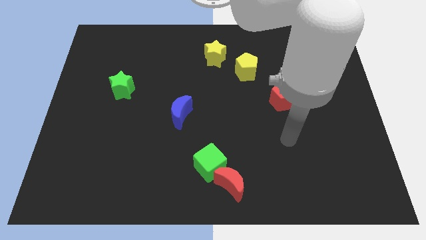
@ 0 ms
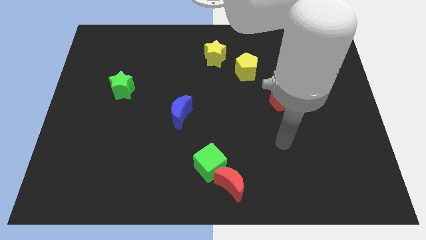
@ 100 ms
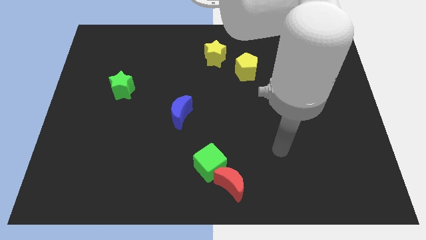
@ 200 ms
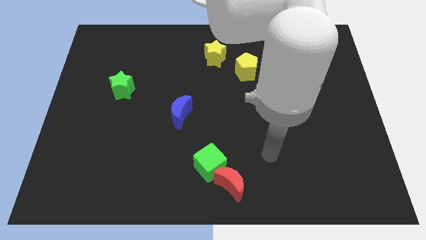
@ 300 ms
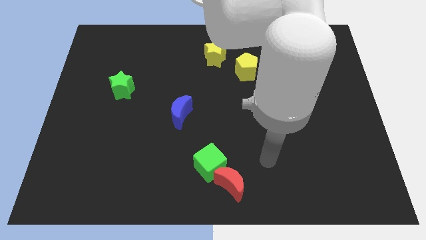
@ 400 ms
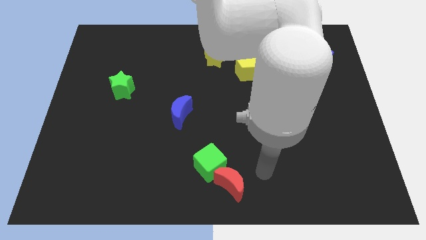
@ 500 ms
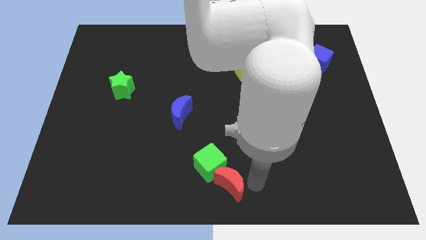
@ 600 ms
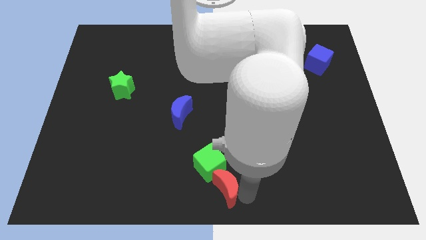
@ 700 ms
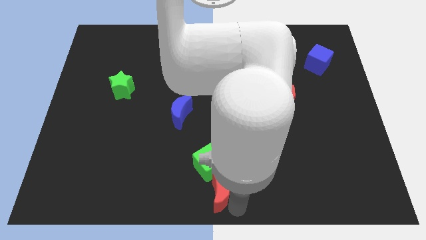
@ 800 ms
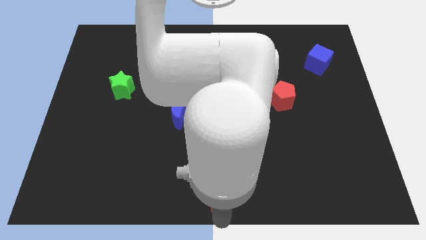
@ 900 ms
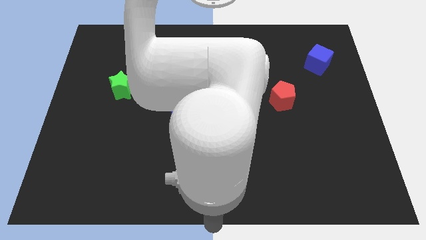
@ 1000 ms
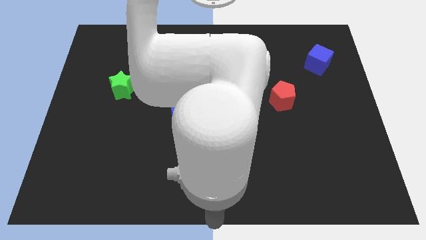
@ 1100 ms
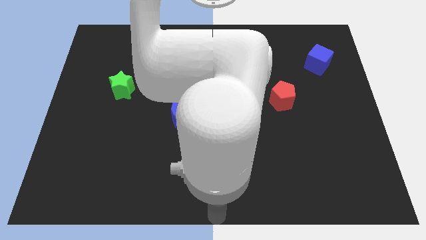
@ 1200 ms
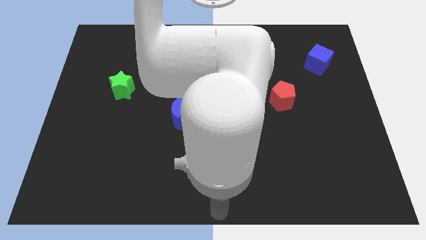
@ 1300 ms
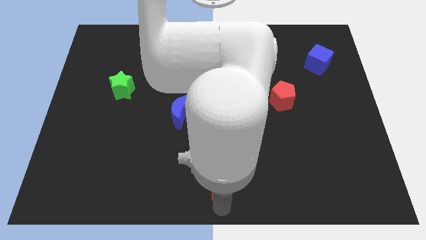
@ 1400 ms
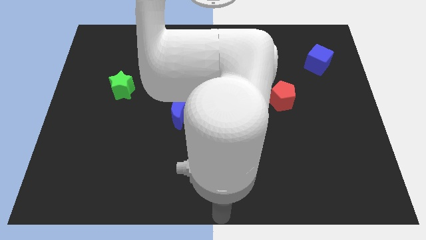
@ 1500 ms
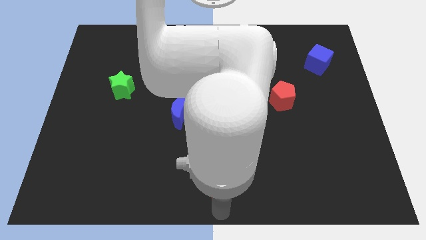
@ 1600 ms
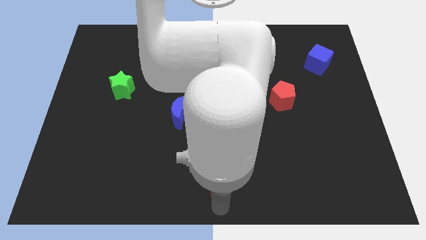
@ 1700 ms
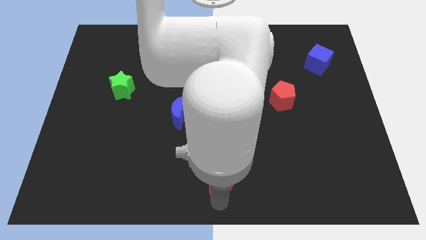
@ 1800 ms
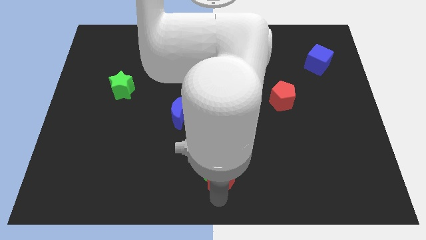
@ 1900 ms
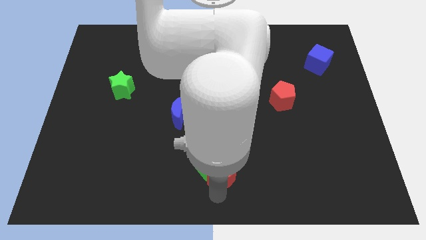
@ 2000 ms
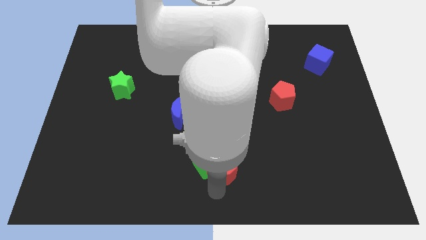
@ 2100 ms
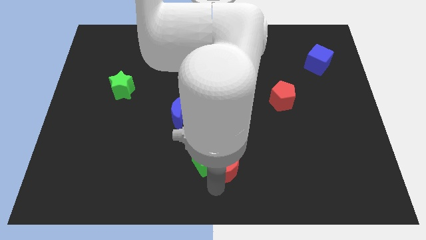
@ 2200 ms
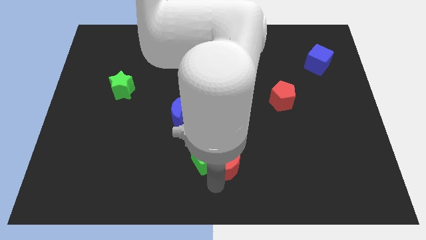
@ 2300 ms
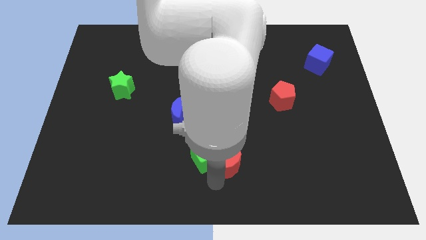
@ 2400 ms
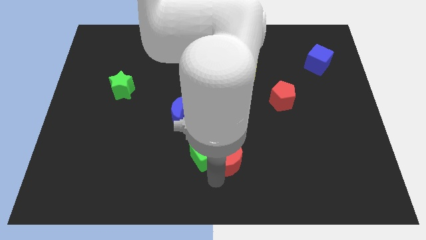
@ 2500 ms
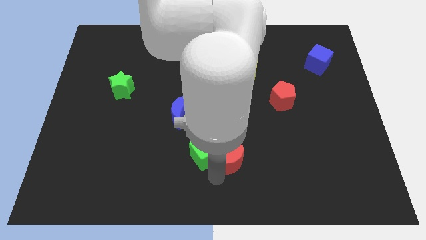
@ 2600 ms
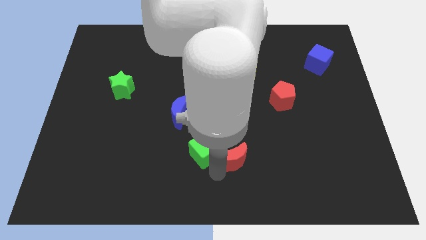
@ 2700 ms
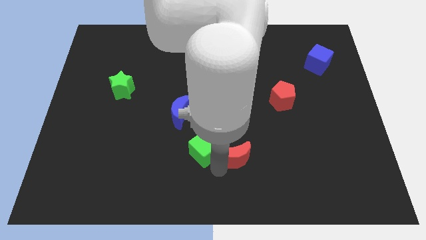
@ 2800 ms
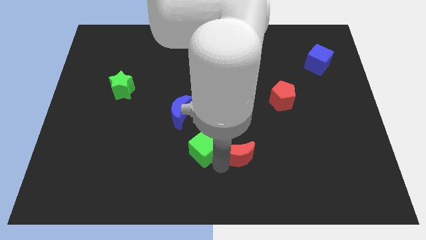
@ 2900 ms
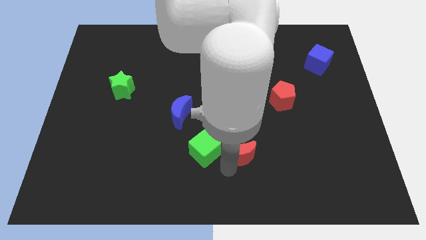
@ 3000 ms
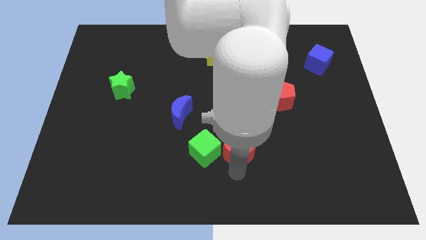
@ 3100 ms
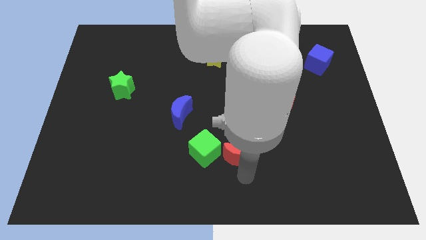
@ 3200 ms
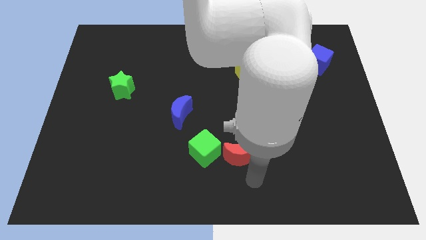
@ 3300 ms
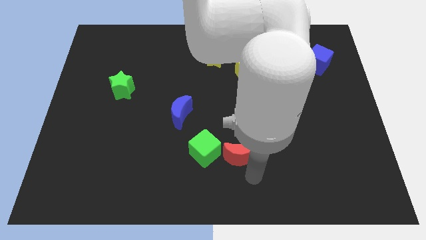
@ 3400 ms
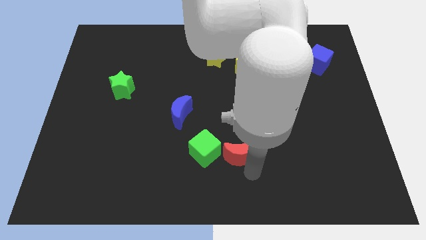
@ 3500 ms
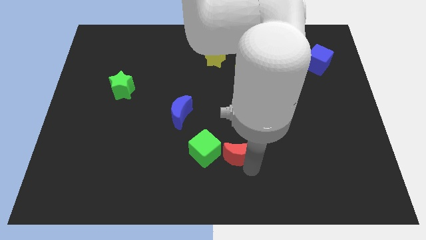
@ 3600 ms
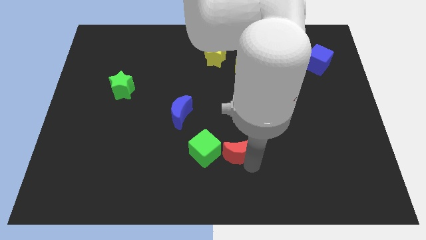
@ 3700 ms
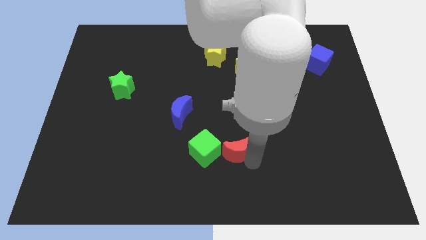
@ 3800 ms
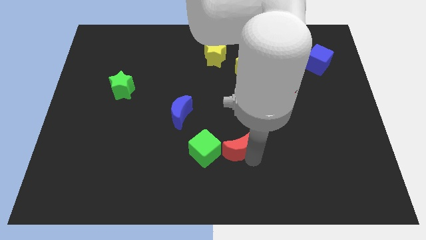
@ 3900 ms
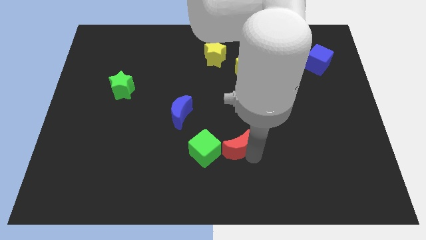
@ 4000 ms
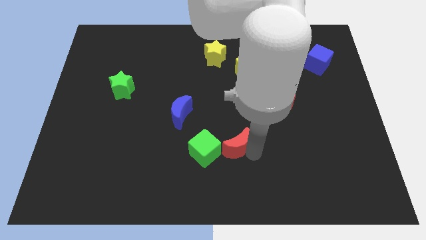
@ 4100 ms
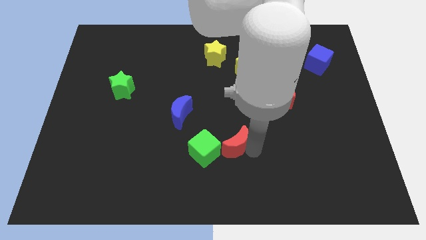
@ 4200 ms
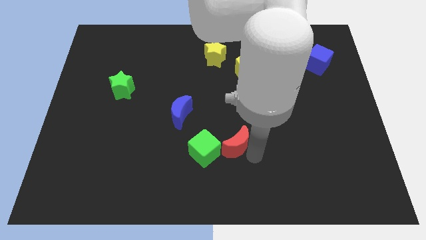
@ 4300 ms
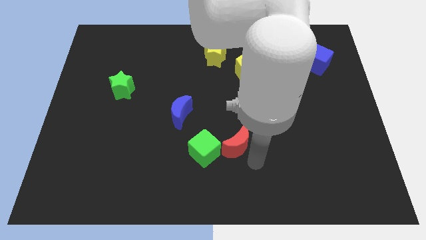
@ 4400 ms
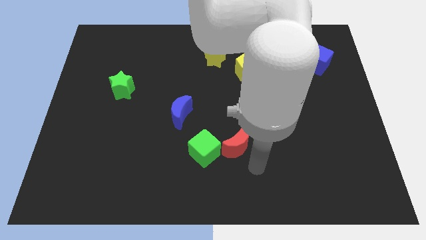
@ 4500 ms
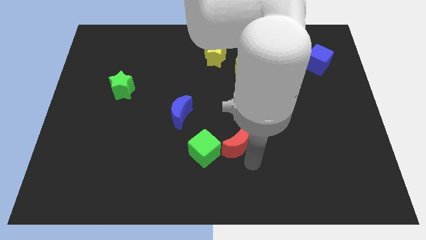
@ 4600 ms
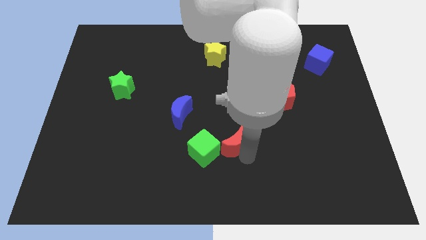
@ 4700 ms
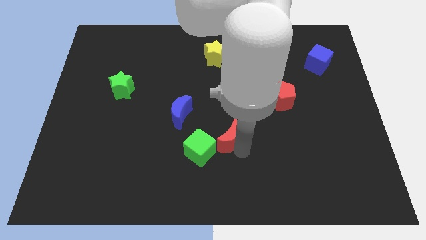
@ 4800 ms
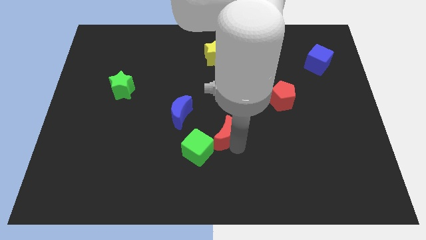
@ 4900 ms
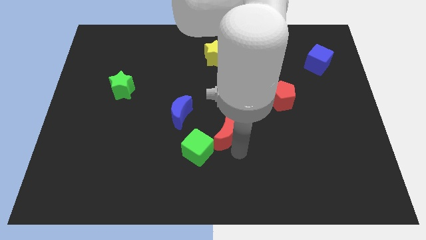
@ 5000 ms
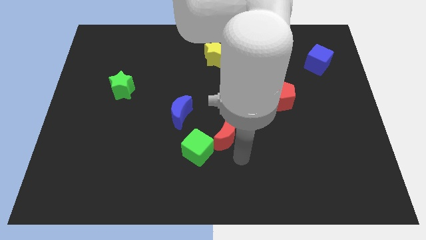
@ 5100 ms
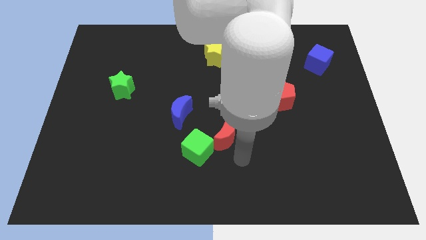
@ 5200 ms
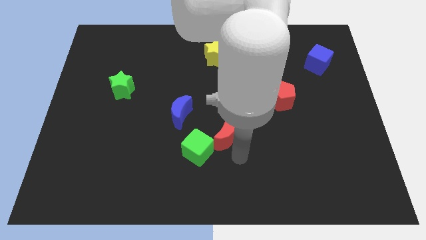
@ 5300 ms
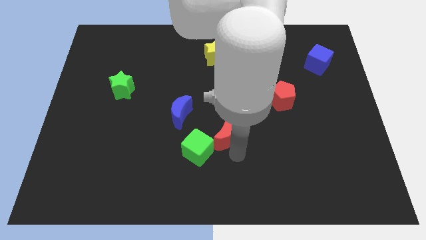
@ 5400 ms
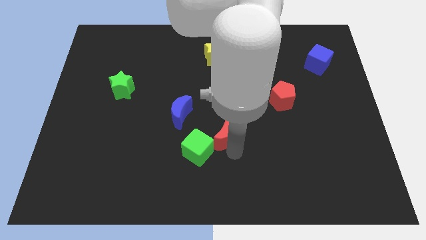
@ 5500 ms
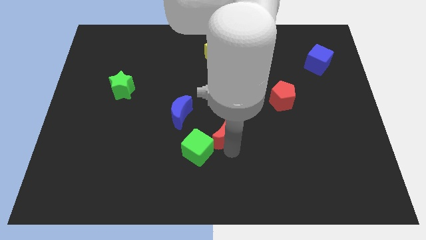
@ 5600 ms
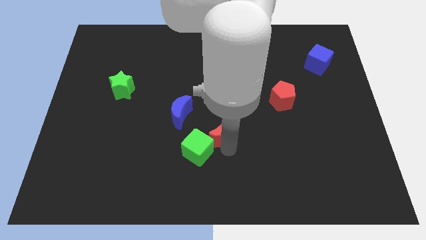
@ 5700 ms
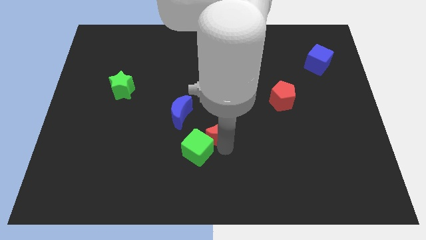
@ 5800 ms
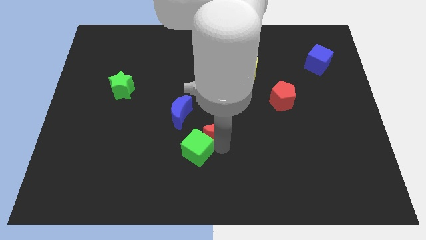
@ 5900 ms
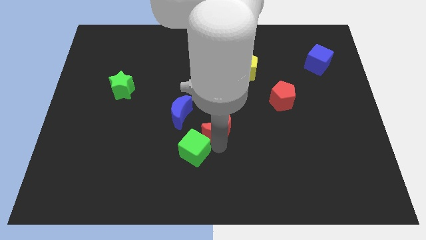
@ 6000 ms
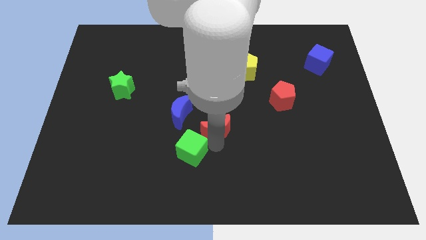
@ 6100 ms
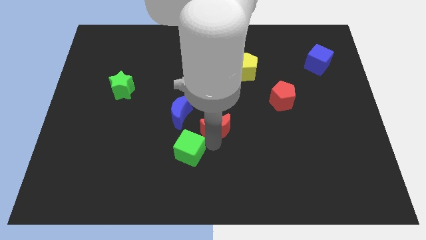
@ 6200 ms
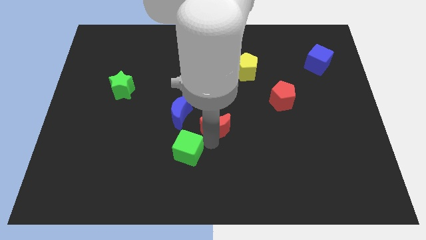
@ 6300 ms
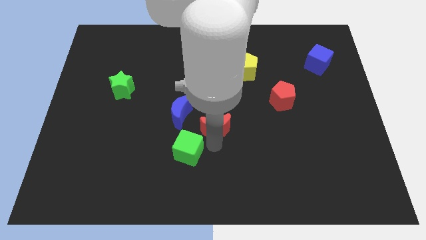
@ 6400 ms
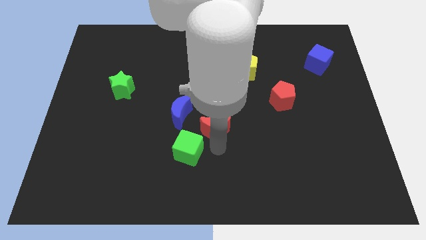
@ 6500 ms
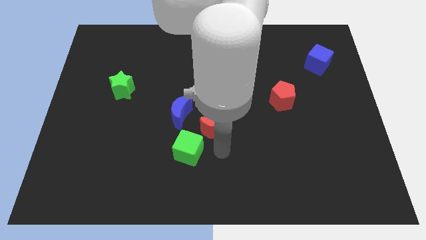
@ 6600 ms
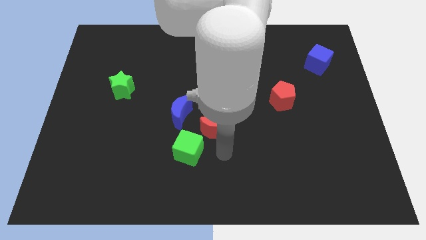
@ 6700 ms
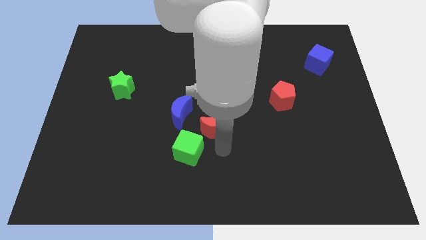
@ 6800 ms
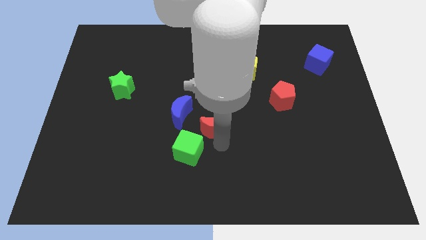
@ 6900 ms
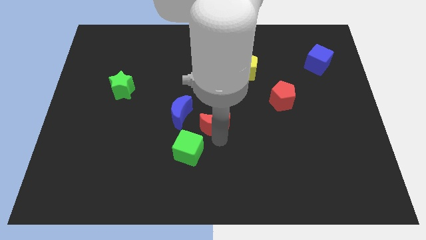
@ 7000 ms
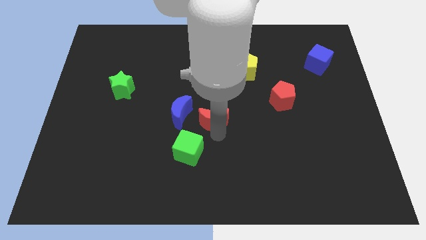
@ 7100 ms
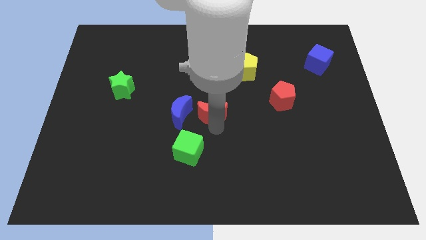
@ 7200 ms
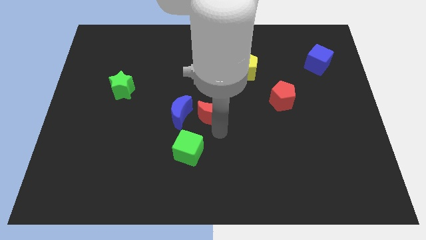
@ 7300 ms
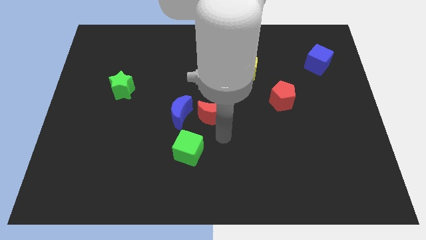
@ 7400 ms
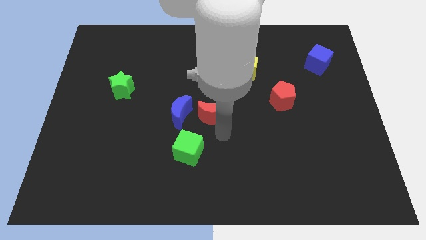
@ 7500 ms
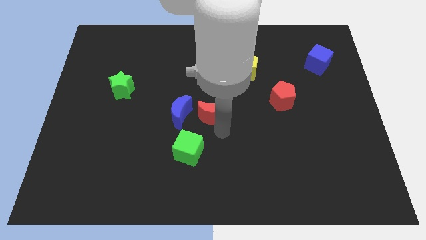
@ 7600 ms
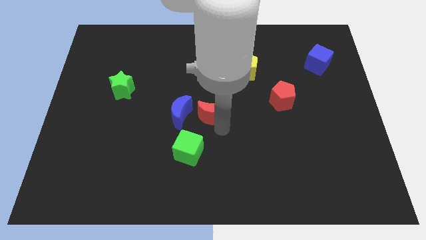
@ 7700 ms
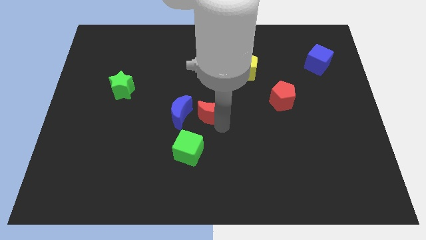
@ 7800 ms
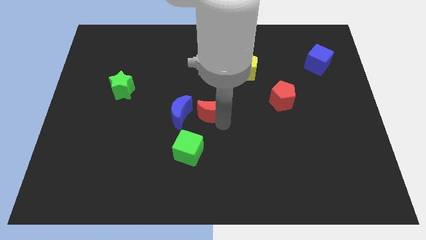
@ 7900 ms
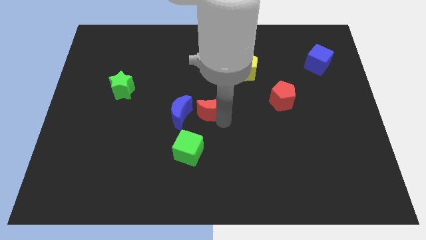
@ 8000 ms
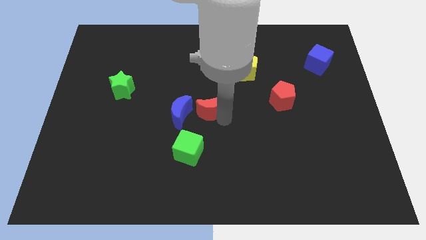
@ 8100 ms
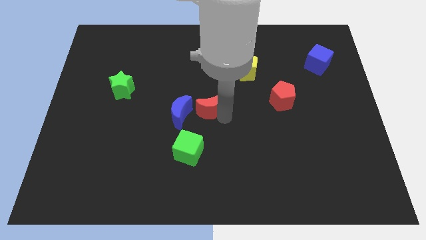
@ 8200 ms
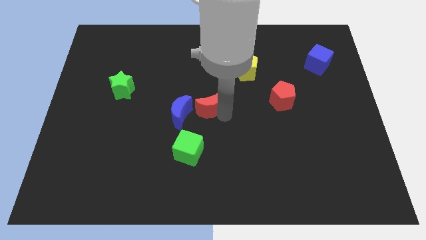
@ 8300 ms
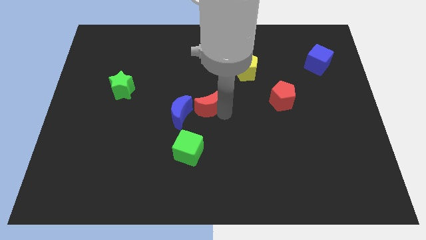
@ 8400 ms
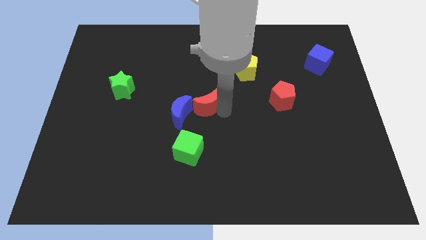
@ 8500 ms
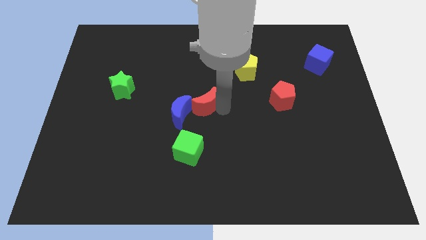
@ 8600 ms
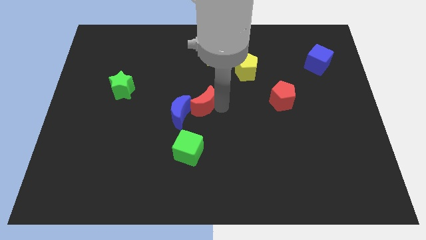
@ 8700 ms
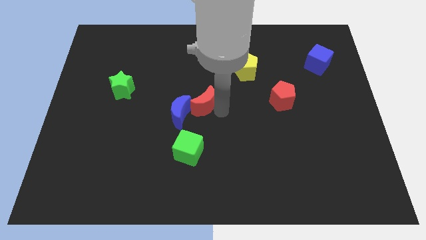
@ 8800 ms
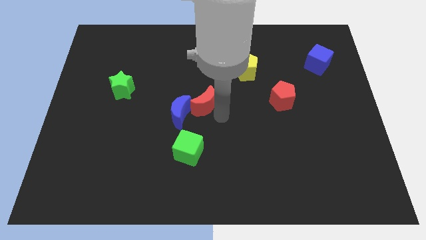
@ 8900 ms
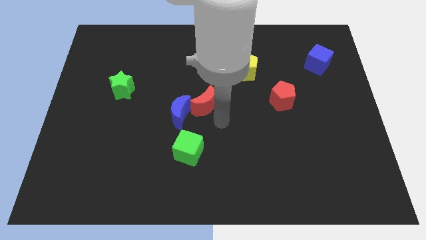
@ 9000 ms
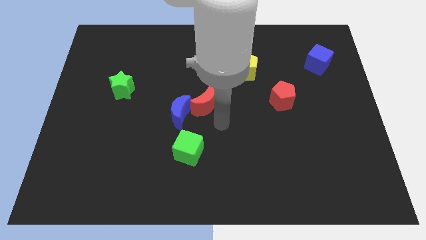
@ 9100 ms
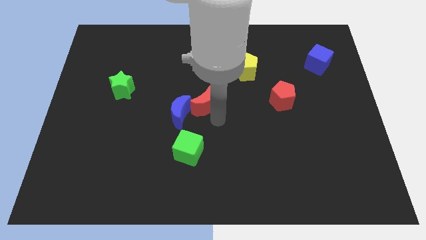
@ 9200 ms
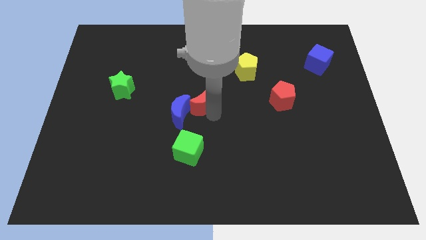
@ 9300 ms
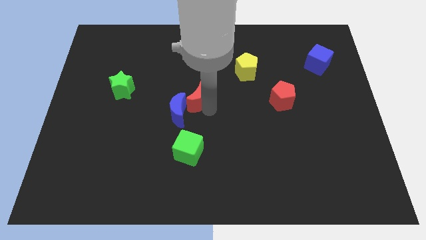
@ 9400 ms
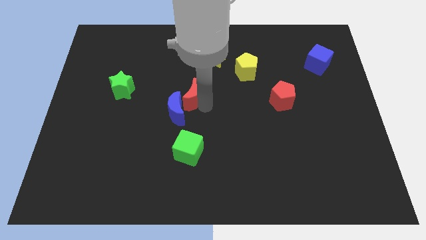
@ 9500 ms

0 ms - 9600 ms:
slide the red moon to the top side of the blue moon
